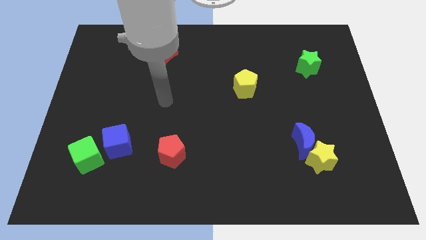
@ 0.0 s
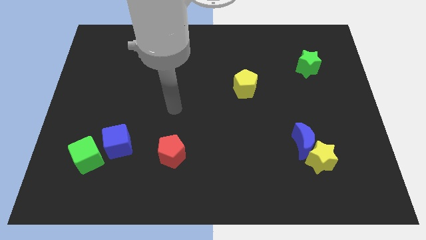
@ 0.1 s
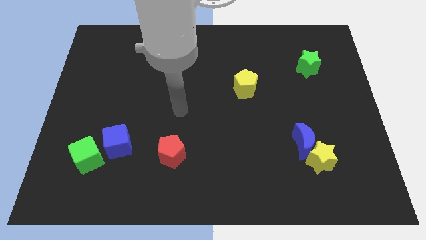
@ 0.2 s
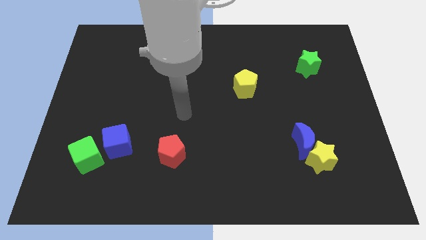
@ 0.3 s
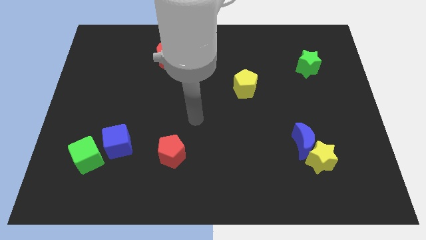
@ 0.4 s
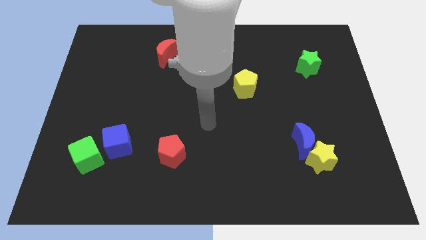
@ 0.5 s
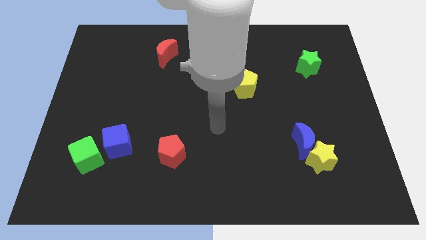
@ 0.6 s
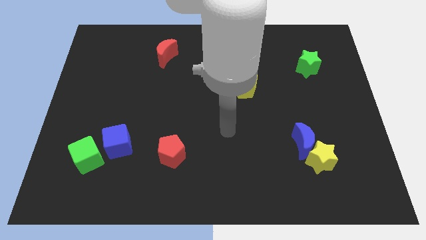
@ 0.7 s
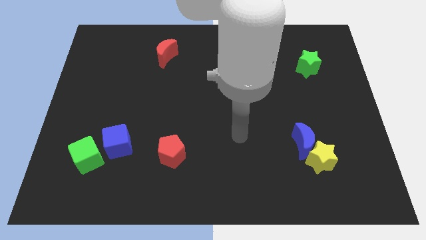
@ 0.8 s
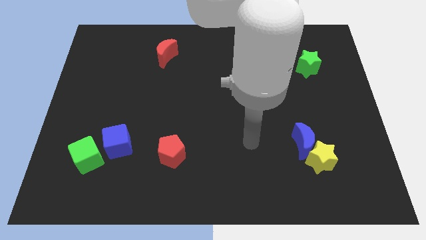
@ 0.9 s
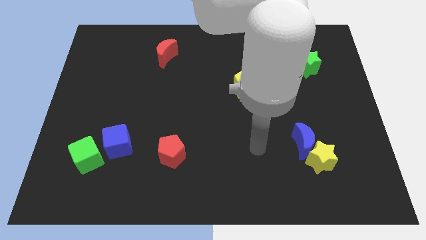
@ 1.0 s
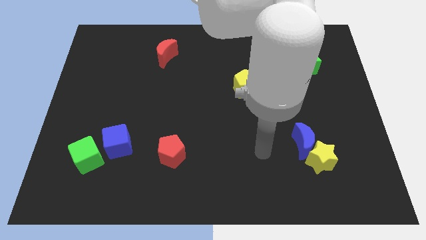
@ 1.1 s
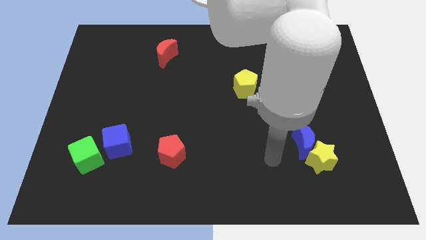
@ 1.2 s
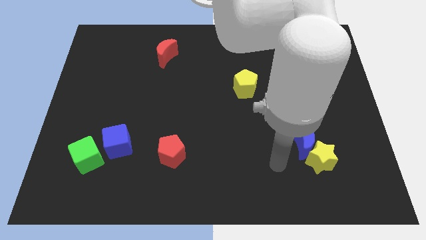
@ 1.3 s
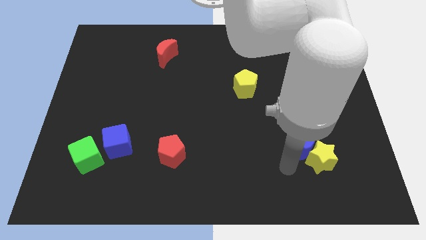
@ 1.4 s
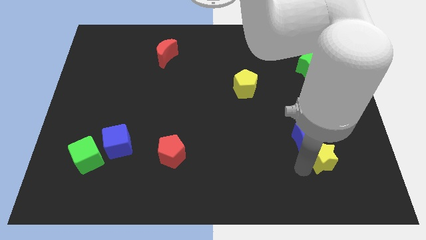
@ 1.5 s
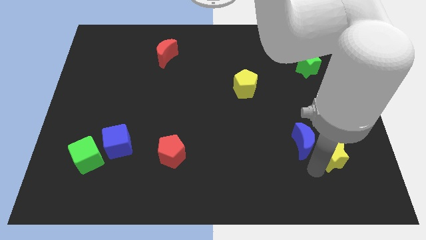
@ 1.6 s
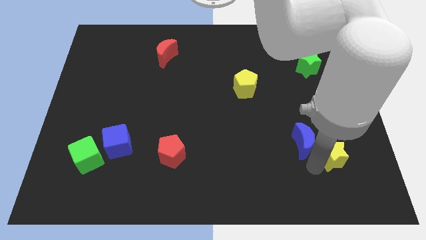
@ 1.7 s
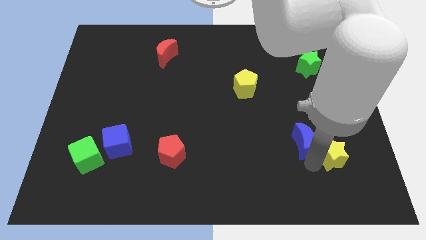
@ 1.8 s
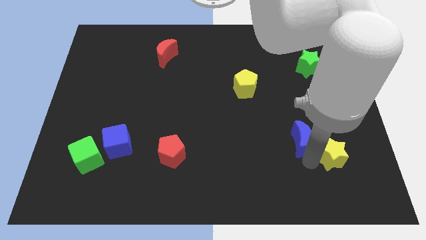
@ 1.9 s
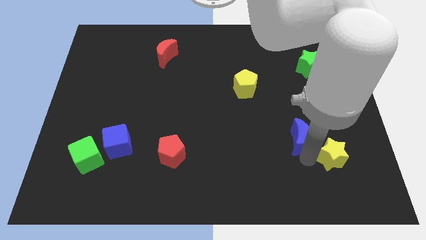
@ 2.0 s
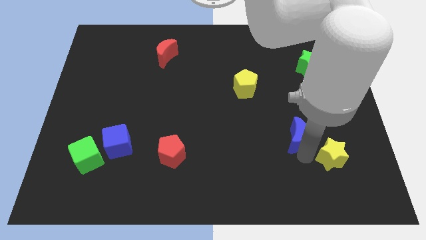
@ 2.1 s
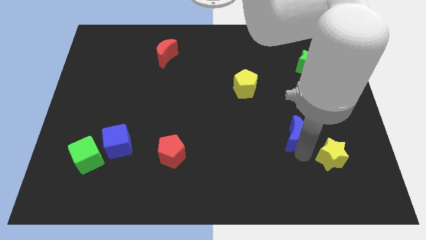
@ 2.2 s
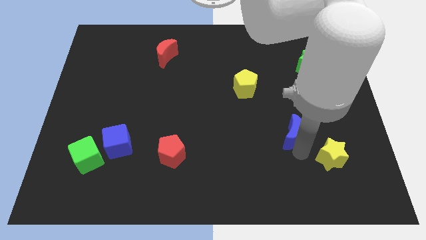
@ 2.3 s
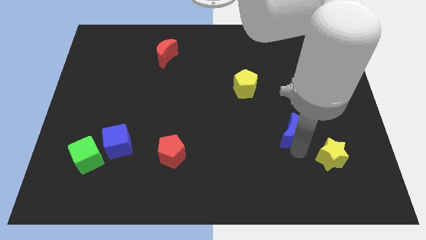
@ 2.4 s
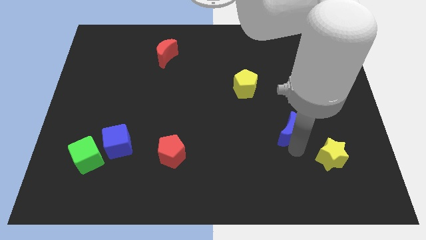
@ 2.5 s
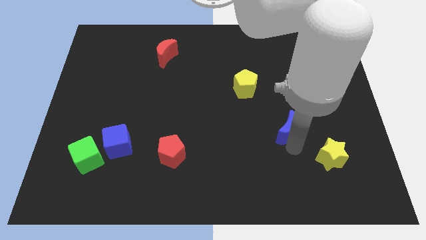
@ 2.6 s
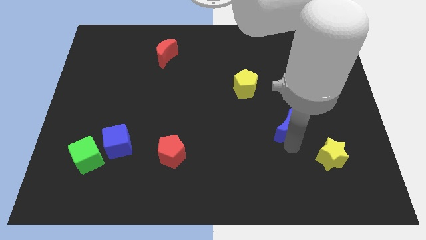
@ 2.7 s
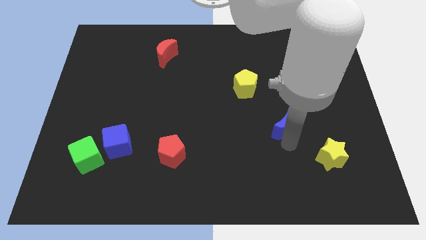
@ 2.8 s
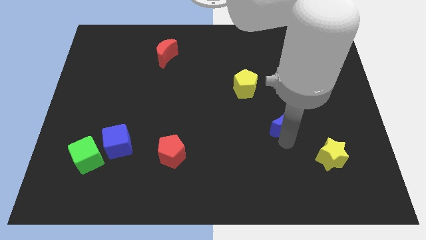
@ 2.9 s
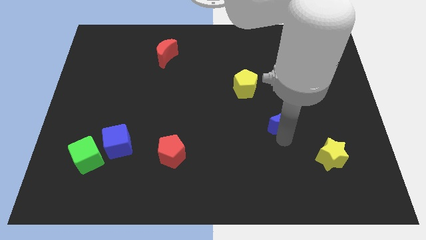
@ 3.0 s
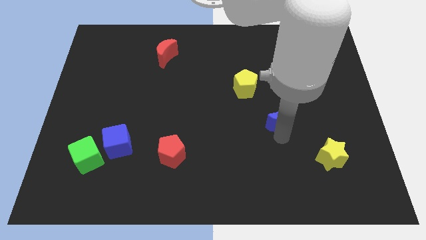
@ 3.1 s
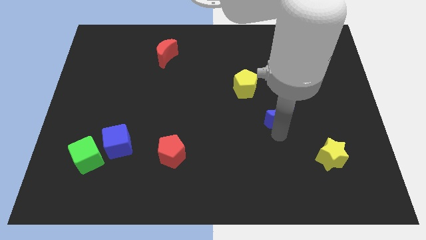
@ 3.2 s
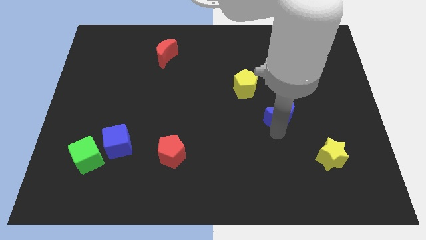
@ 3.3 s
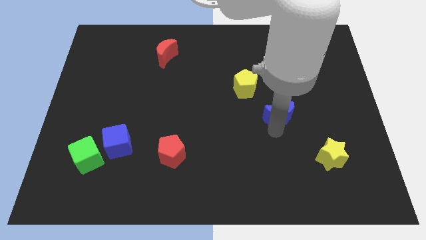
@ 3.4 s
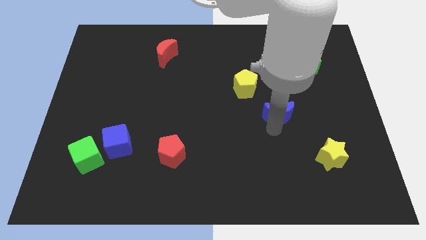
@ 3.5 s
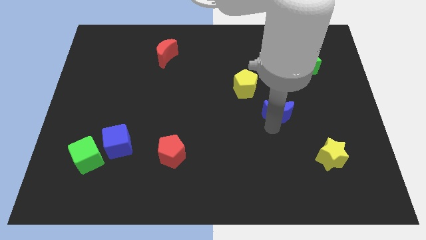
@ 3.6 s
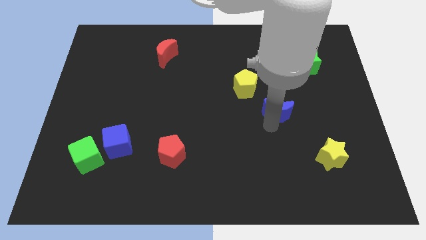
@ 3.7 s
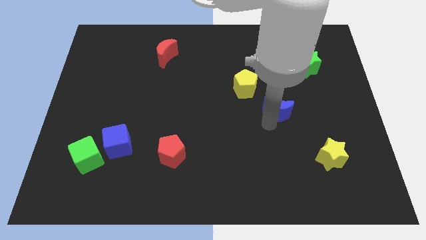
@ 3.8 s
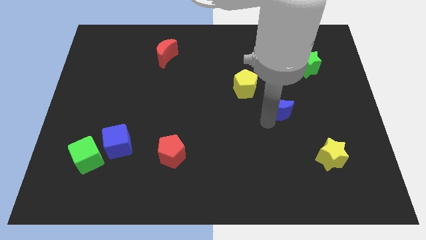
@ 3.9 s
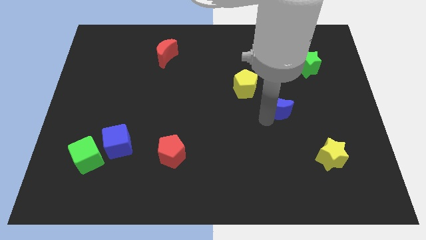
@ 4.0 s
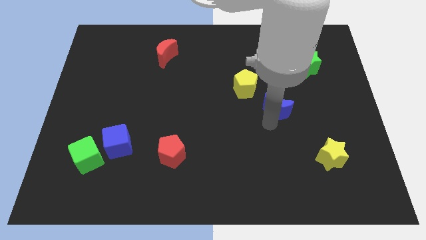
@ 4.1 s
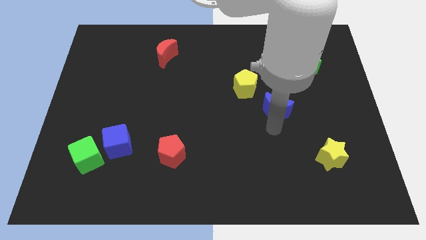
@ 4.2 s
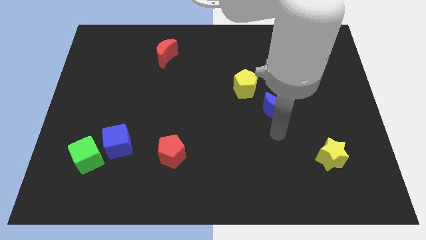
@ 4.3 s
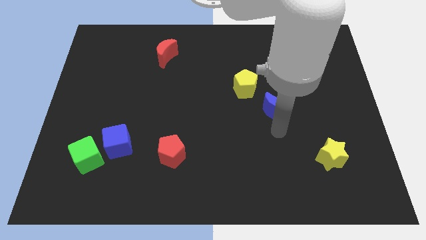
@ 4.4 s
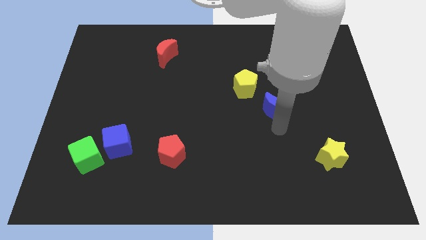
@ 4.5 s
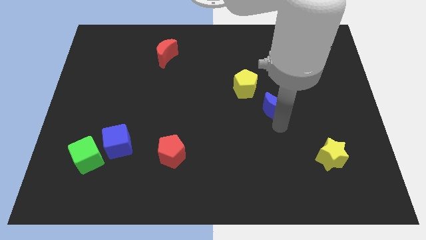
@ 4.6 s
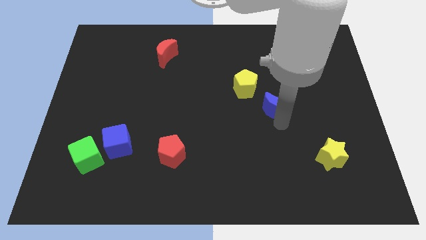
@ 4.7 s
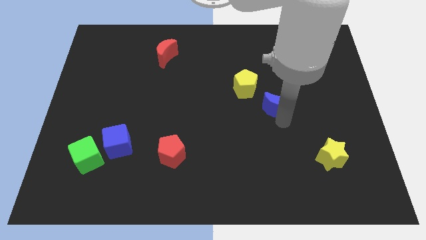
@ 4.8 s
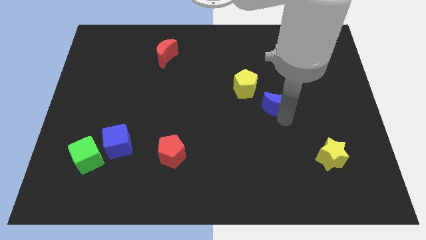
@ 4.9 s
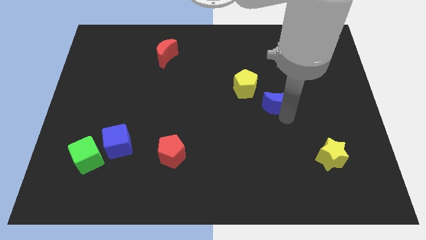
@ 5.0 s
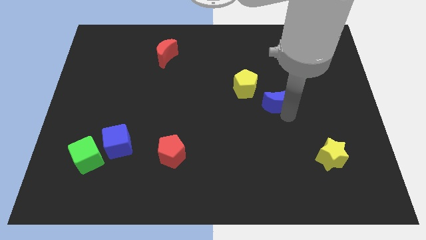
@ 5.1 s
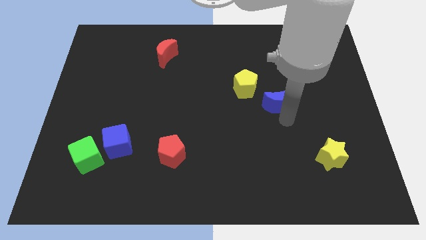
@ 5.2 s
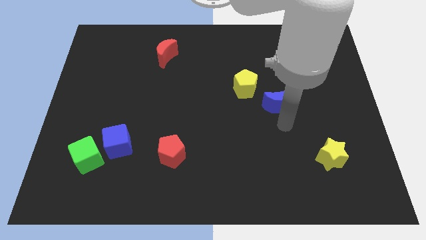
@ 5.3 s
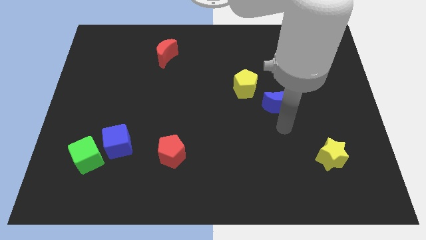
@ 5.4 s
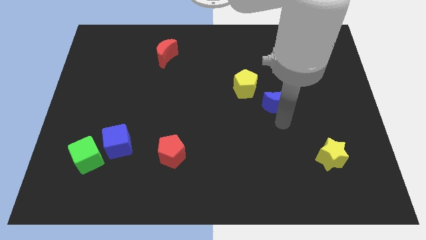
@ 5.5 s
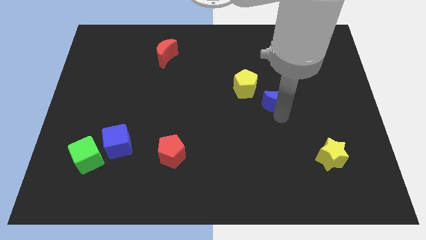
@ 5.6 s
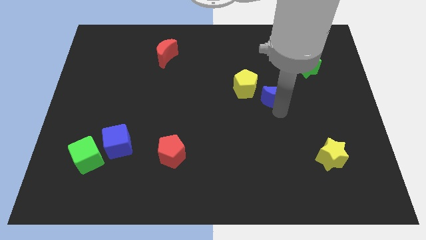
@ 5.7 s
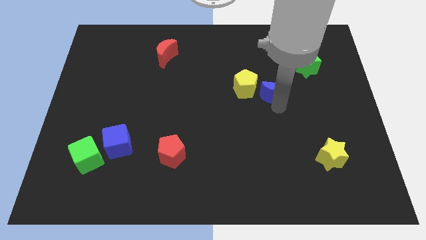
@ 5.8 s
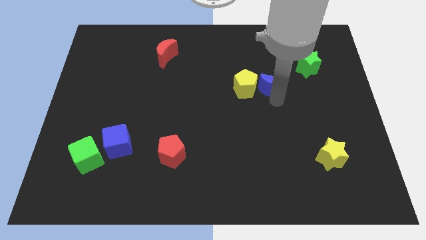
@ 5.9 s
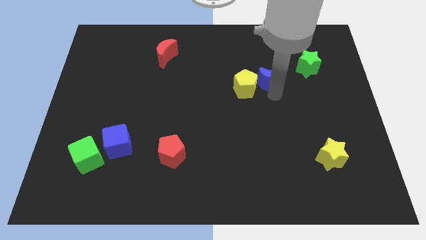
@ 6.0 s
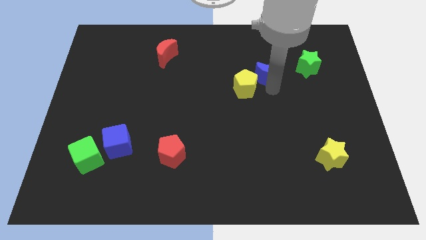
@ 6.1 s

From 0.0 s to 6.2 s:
push the blue moon to the left side of the green star
